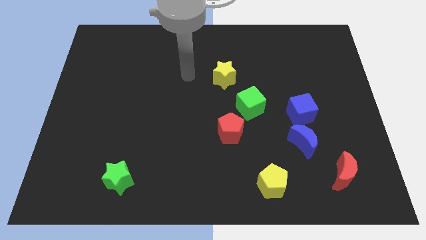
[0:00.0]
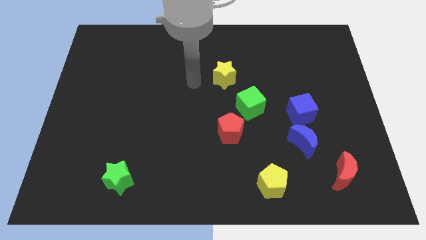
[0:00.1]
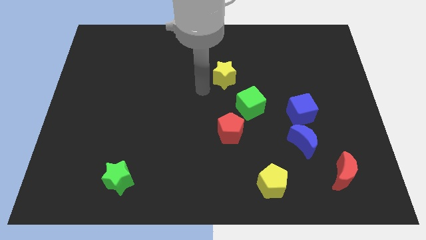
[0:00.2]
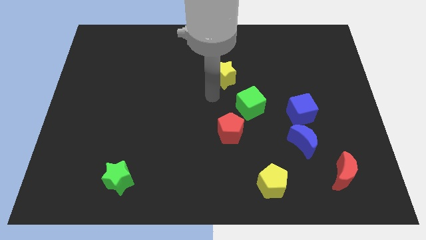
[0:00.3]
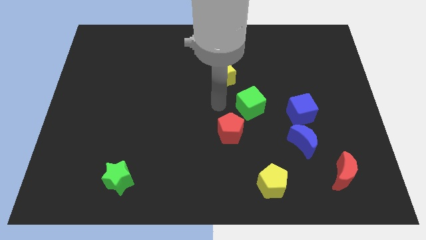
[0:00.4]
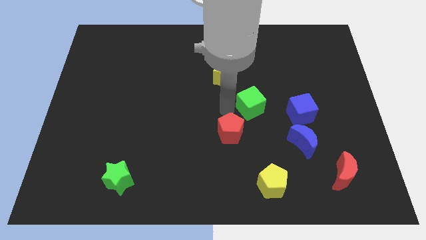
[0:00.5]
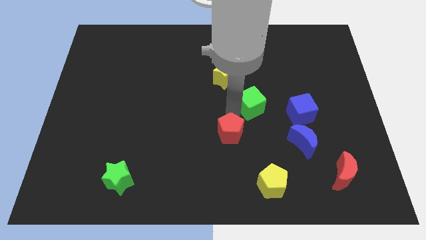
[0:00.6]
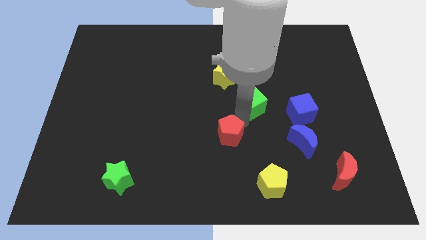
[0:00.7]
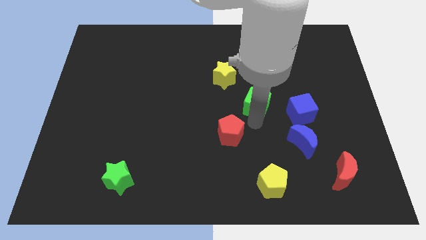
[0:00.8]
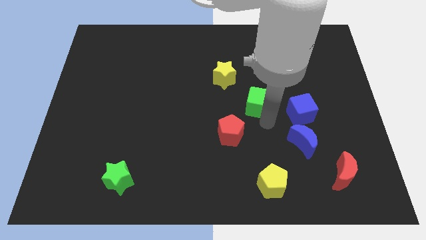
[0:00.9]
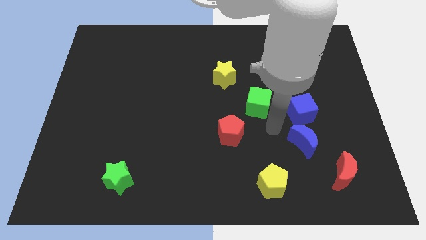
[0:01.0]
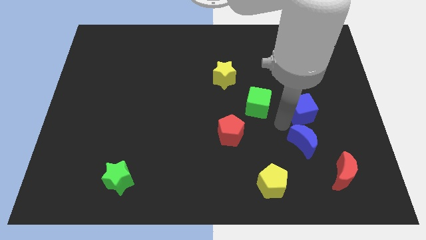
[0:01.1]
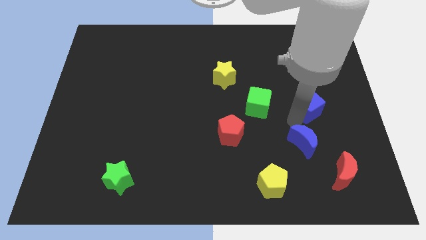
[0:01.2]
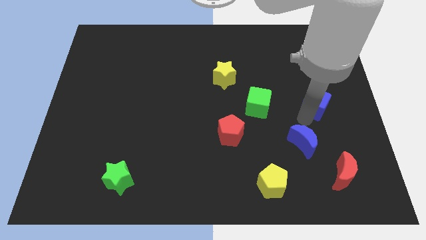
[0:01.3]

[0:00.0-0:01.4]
separate the blue moon from the blue cube

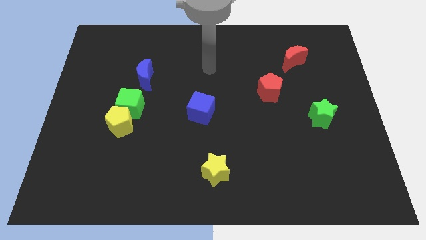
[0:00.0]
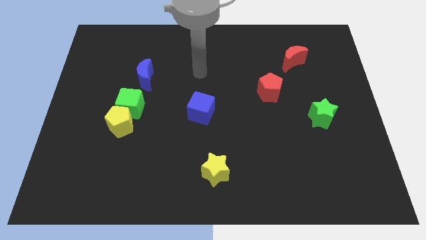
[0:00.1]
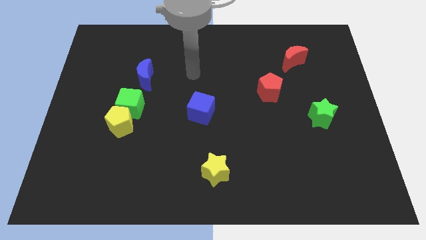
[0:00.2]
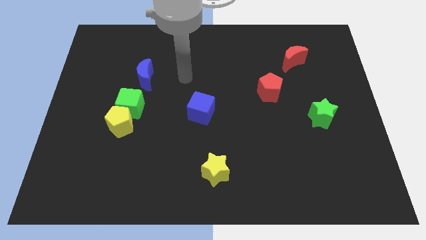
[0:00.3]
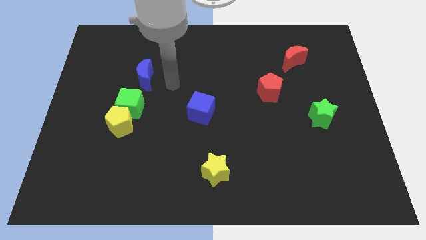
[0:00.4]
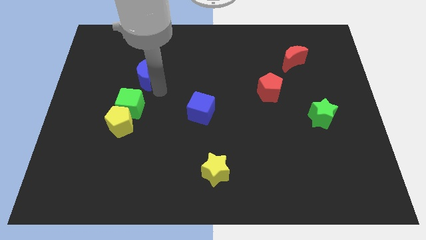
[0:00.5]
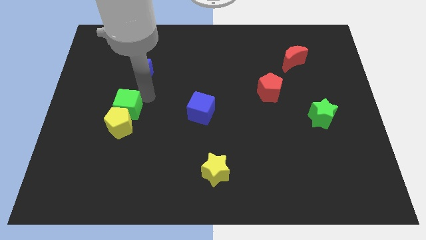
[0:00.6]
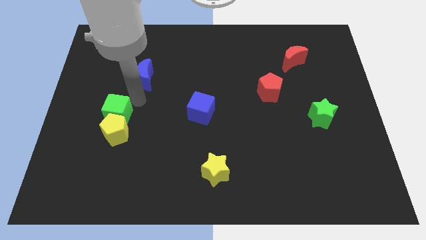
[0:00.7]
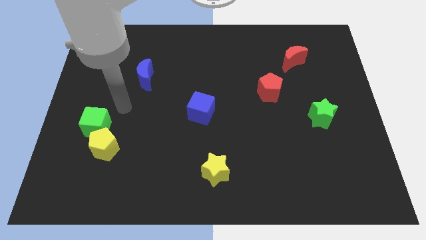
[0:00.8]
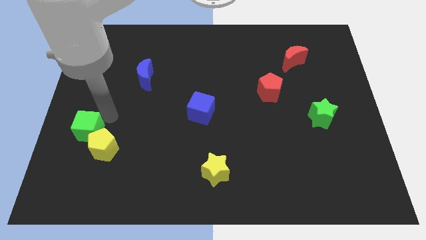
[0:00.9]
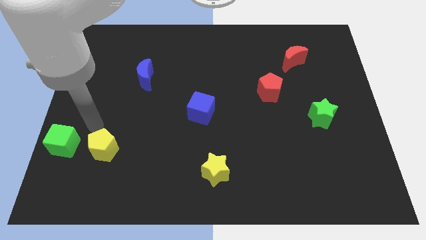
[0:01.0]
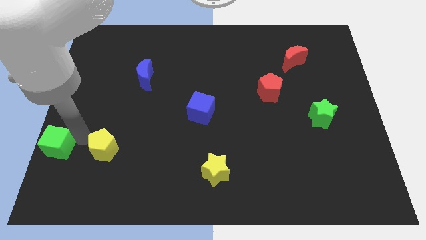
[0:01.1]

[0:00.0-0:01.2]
move the yellow pentagon away from the green cube

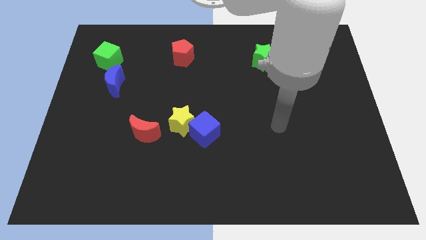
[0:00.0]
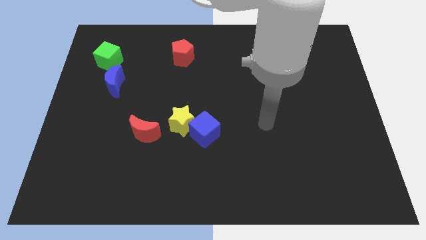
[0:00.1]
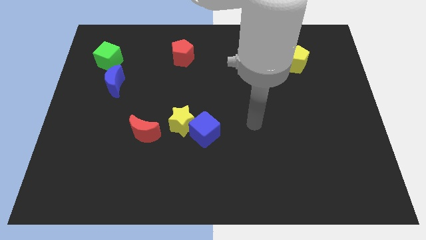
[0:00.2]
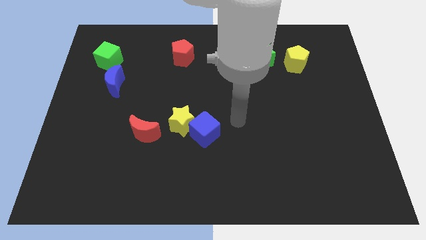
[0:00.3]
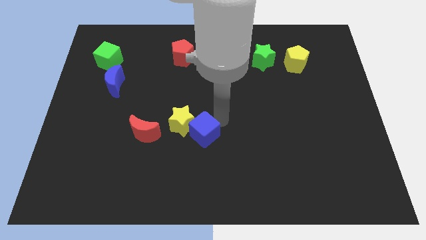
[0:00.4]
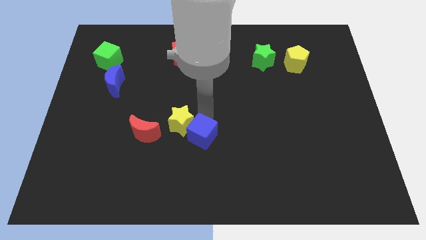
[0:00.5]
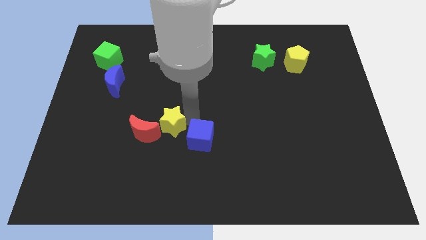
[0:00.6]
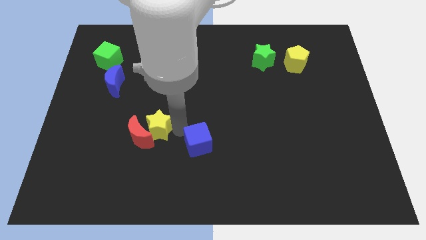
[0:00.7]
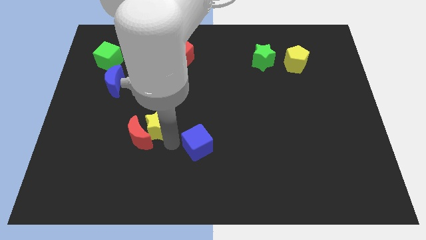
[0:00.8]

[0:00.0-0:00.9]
separate the blue cube from the yellow star

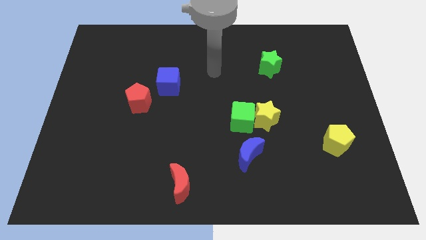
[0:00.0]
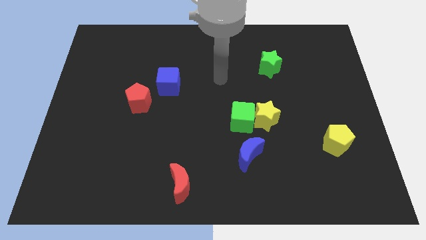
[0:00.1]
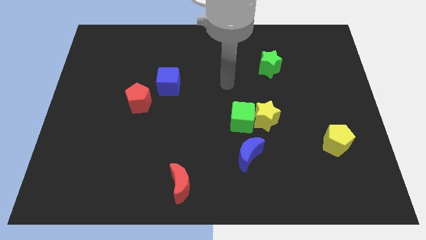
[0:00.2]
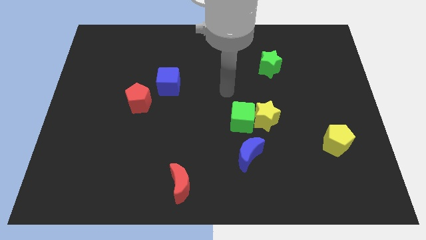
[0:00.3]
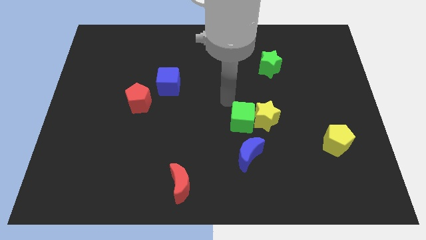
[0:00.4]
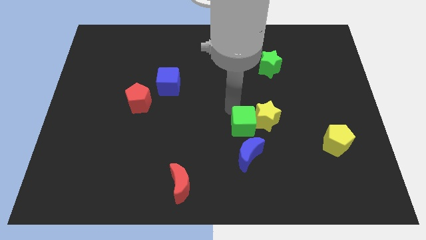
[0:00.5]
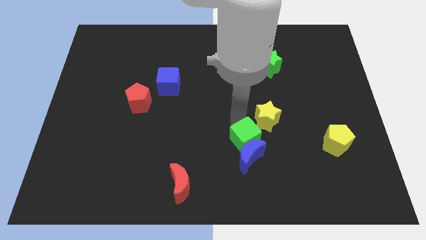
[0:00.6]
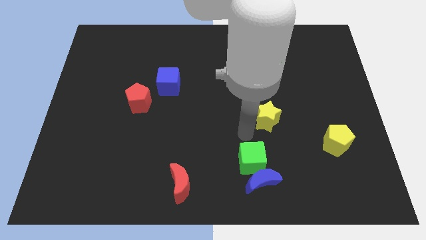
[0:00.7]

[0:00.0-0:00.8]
pull the yellow star apart from the green cube

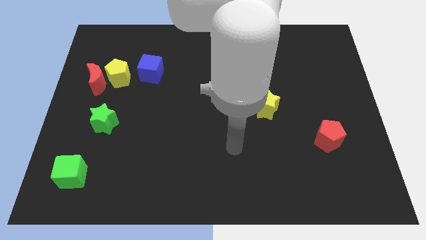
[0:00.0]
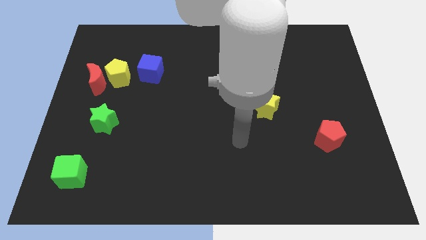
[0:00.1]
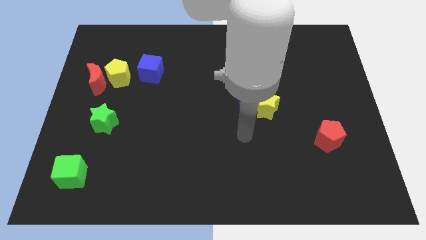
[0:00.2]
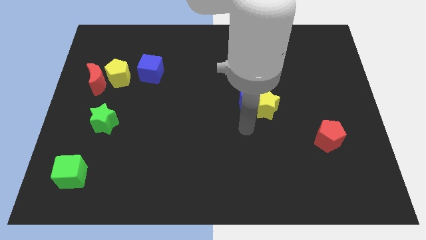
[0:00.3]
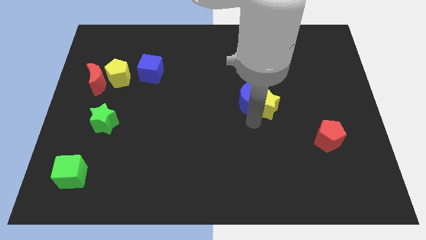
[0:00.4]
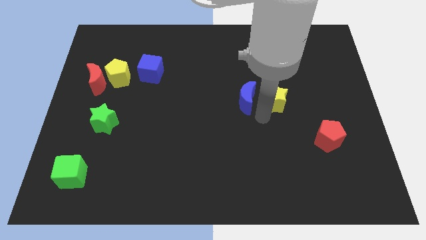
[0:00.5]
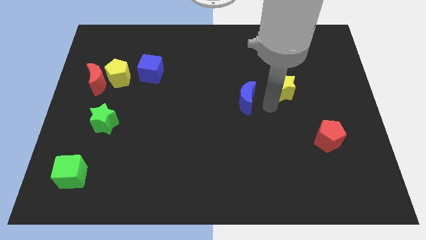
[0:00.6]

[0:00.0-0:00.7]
move the blue moon away from the yellow star

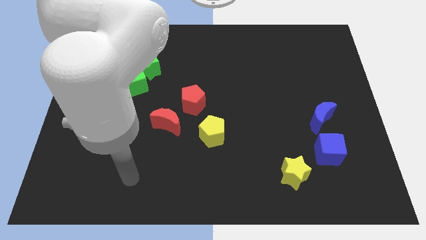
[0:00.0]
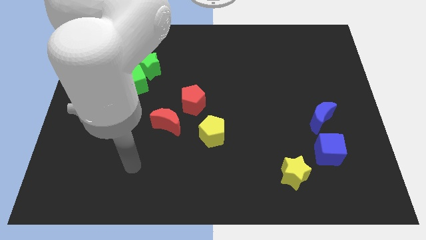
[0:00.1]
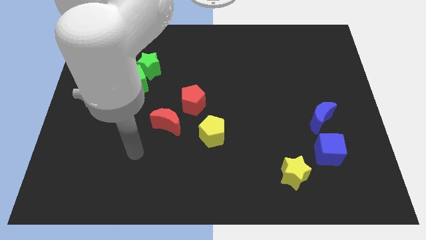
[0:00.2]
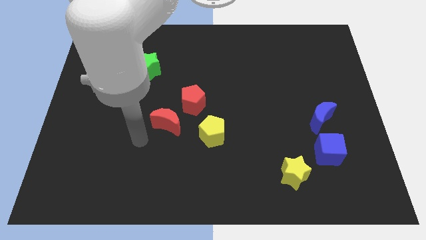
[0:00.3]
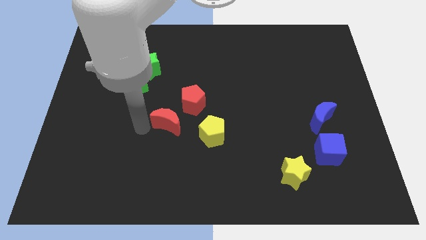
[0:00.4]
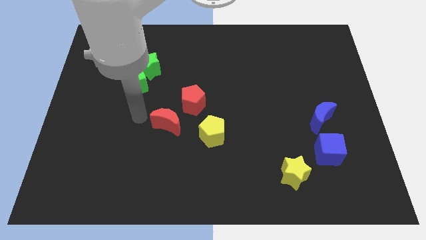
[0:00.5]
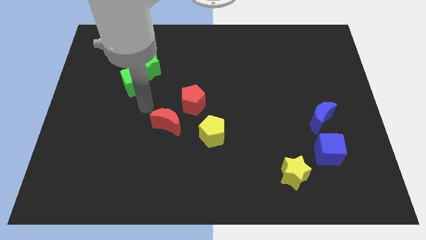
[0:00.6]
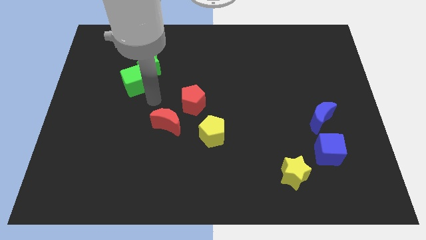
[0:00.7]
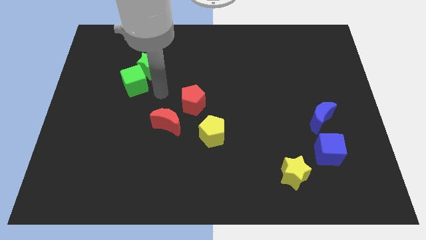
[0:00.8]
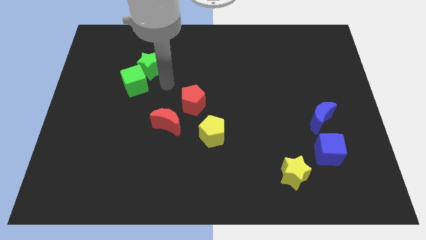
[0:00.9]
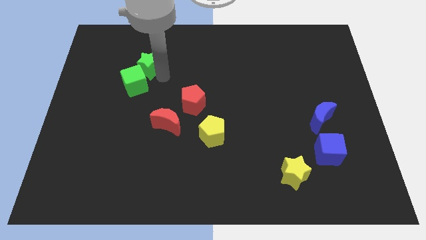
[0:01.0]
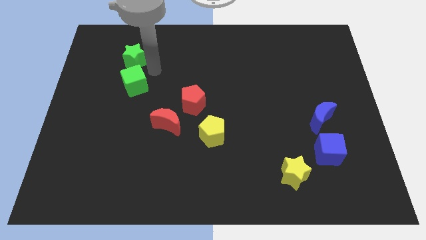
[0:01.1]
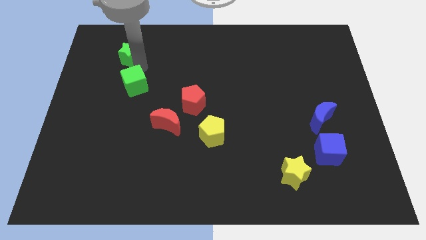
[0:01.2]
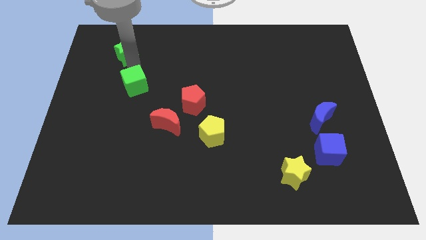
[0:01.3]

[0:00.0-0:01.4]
separate the green cube from the green star

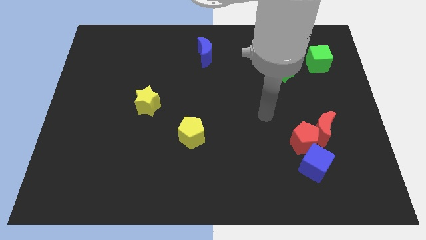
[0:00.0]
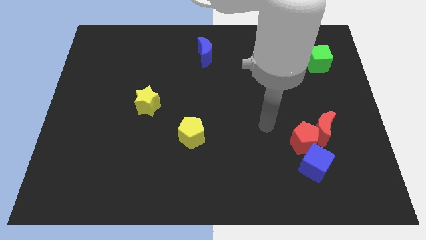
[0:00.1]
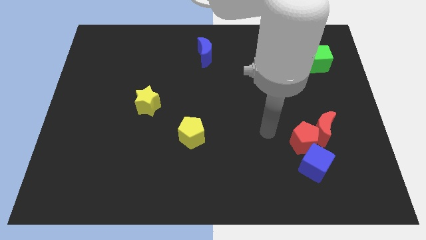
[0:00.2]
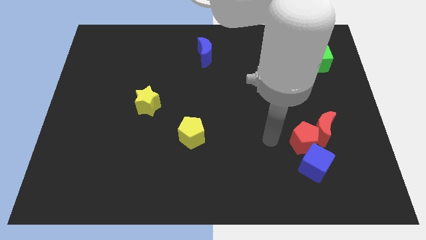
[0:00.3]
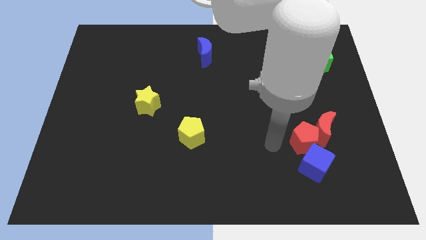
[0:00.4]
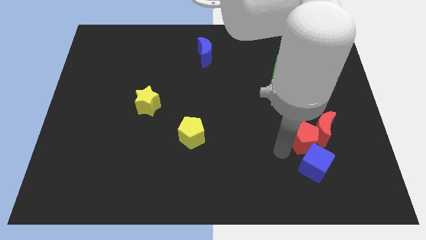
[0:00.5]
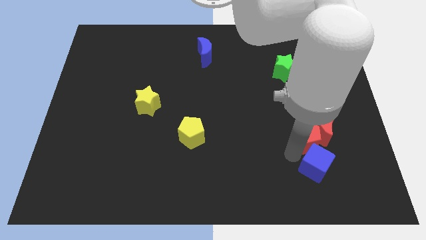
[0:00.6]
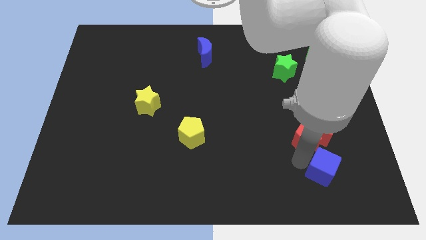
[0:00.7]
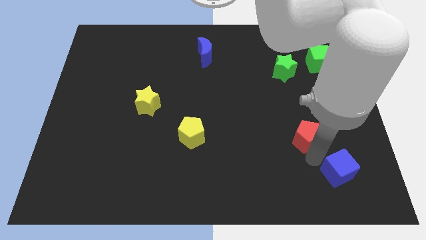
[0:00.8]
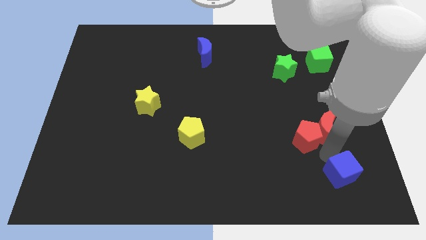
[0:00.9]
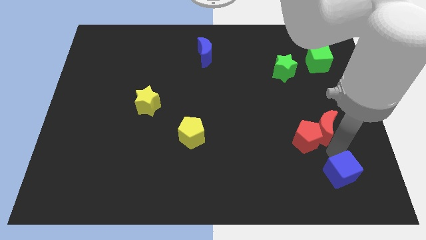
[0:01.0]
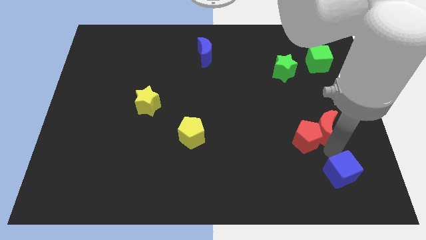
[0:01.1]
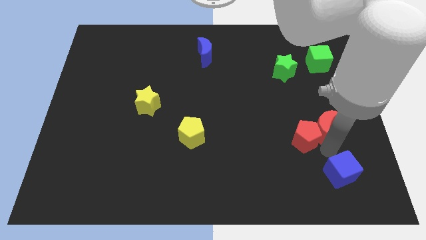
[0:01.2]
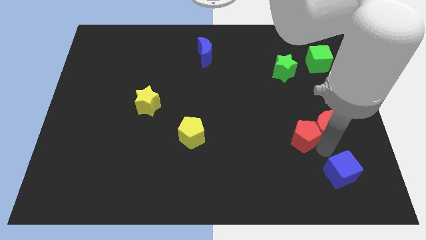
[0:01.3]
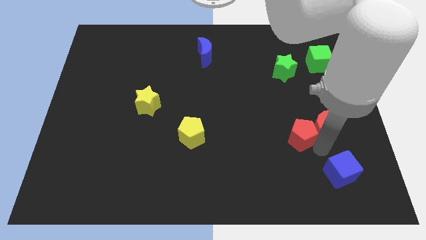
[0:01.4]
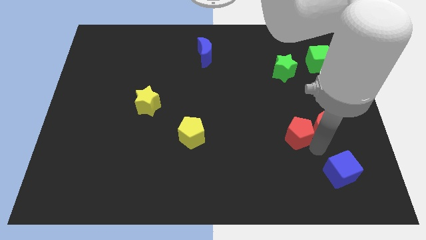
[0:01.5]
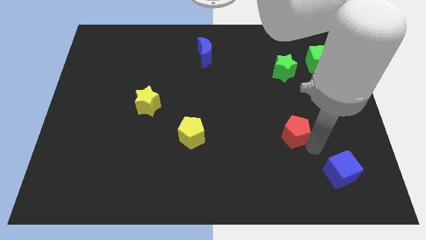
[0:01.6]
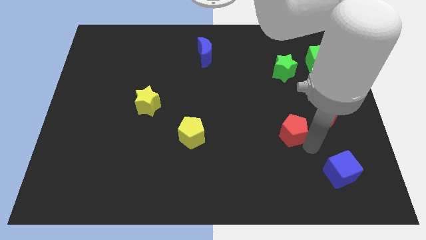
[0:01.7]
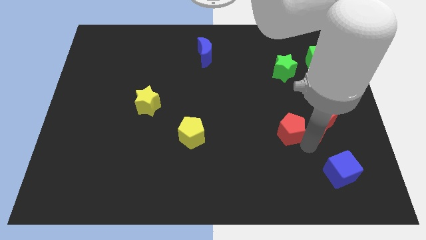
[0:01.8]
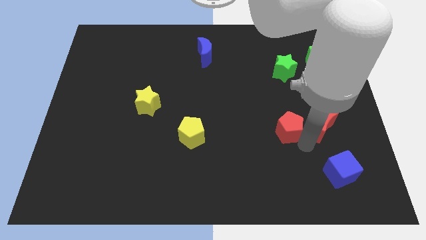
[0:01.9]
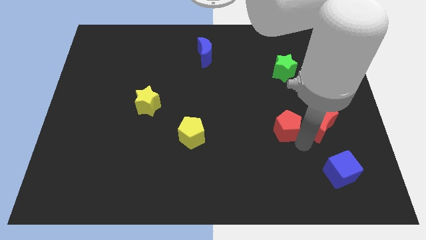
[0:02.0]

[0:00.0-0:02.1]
pull the red pentagon apart from the red moon and blue cube

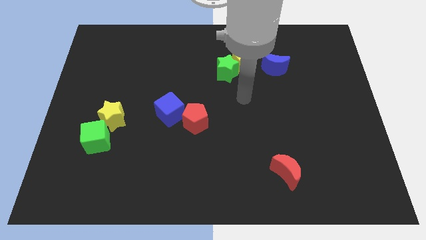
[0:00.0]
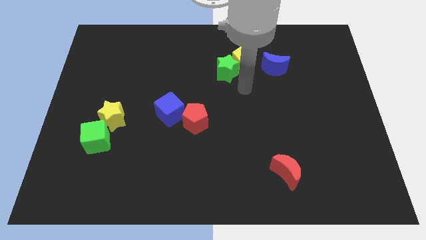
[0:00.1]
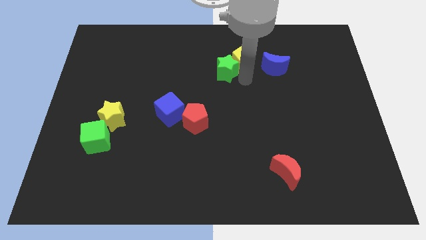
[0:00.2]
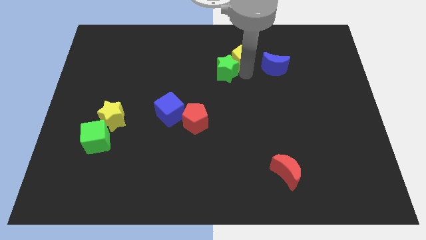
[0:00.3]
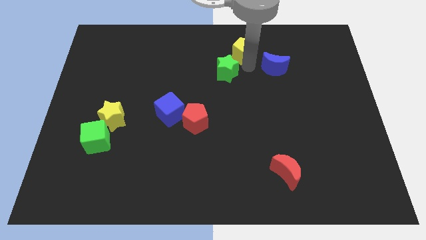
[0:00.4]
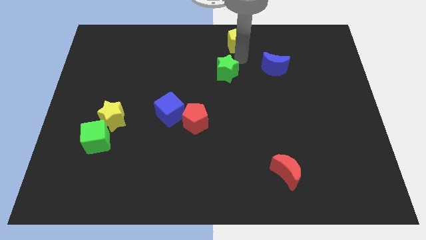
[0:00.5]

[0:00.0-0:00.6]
pull the green star apart from the yellow pentagon

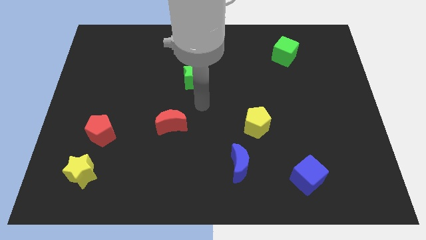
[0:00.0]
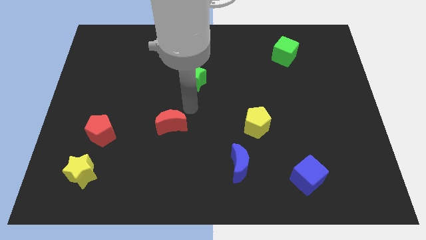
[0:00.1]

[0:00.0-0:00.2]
move the red pentagon away from the yellow star
